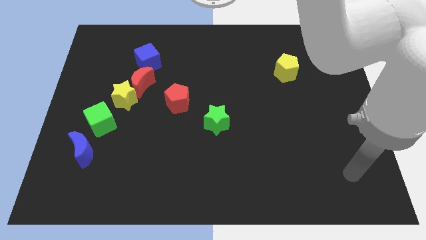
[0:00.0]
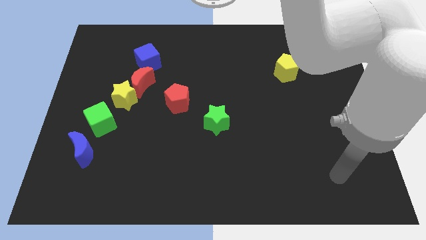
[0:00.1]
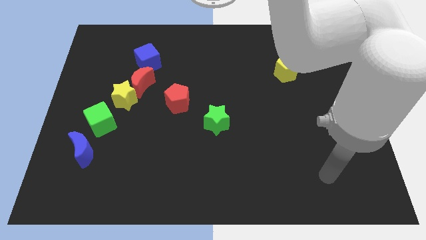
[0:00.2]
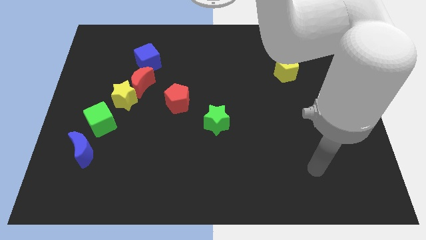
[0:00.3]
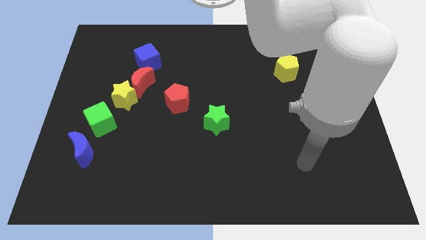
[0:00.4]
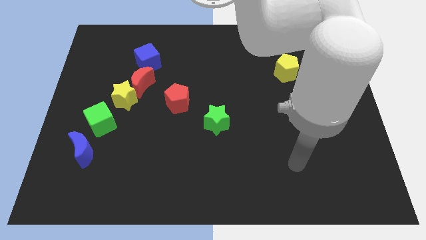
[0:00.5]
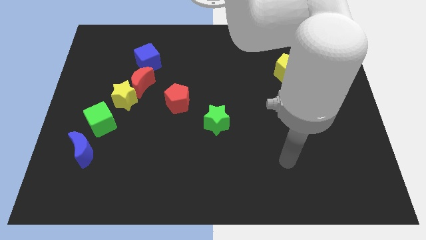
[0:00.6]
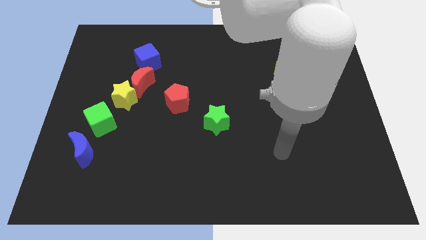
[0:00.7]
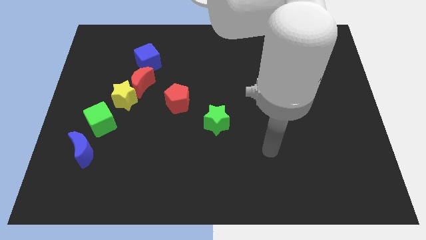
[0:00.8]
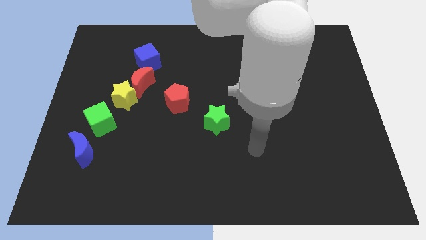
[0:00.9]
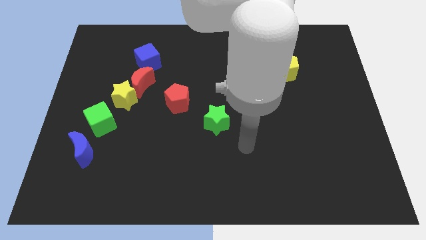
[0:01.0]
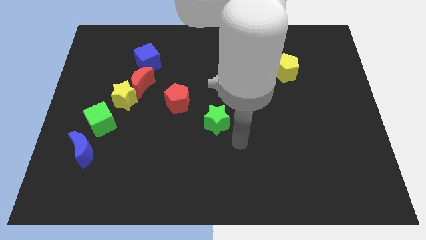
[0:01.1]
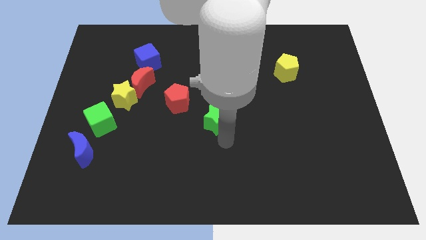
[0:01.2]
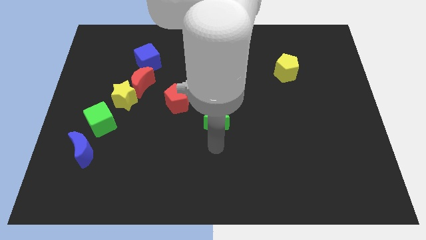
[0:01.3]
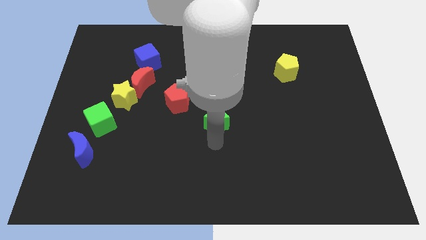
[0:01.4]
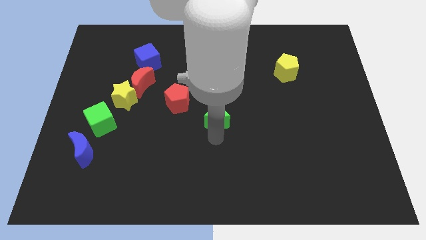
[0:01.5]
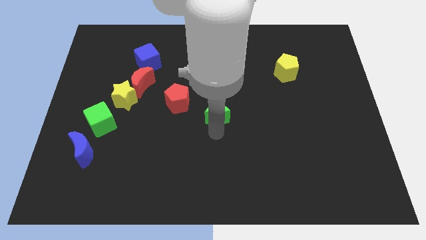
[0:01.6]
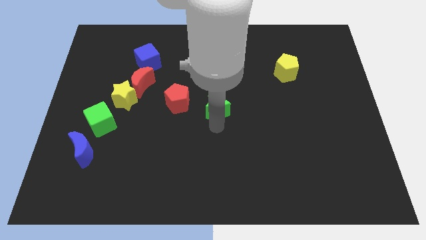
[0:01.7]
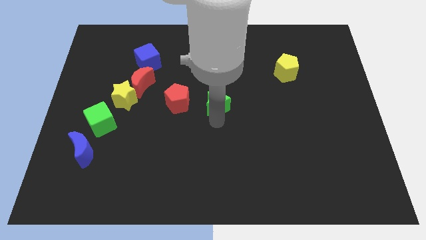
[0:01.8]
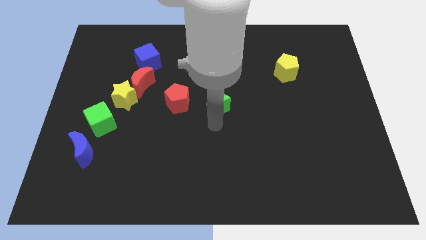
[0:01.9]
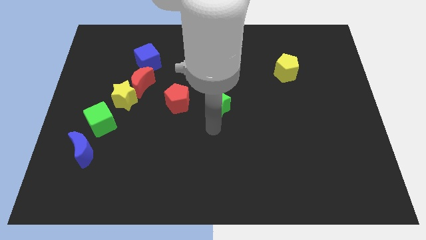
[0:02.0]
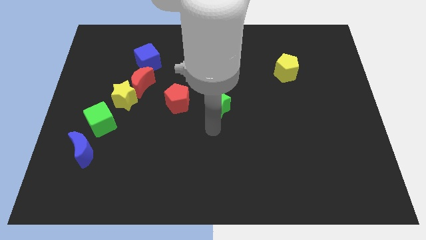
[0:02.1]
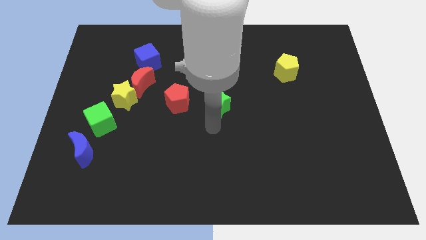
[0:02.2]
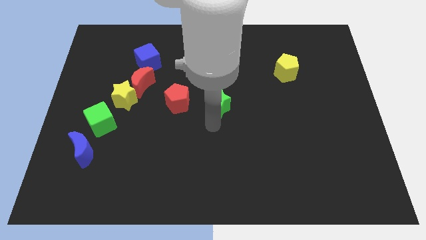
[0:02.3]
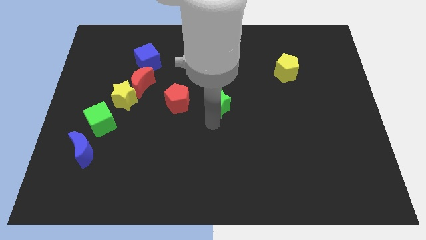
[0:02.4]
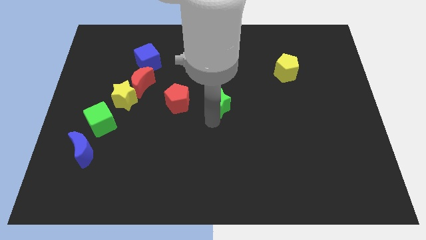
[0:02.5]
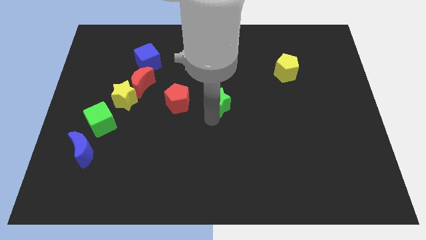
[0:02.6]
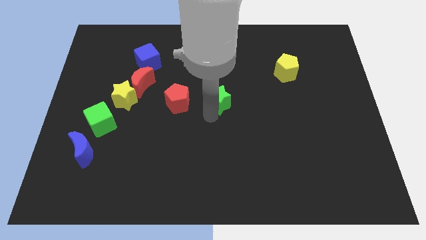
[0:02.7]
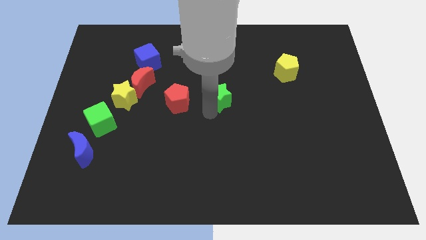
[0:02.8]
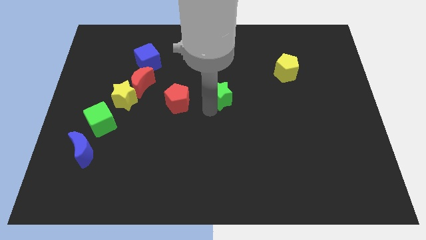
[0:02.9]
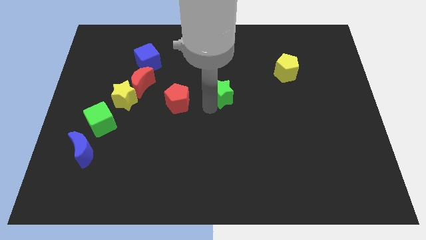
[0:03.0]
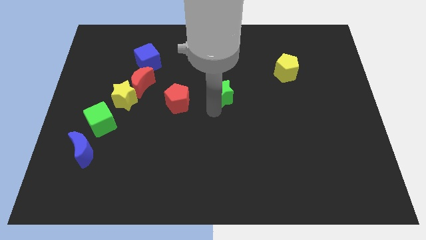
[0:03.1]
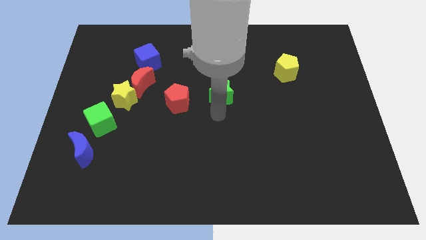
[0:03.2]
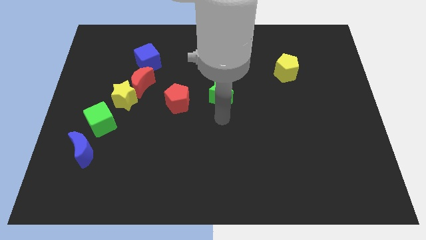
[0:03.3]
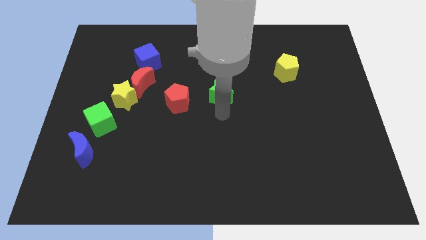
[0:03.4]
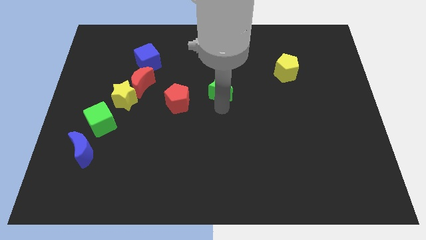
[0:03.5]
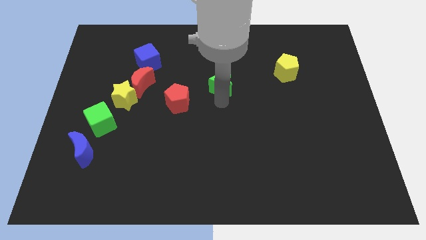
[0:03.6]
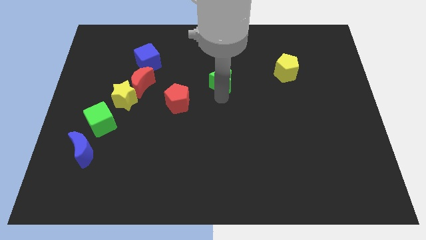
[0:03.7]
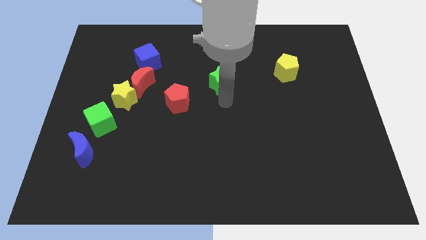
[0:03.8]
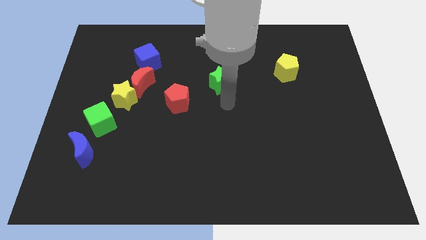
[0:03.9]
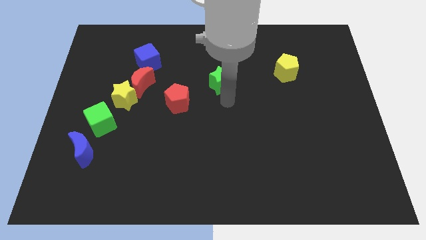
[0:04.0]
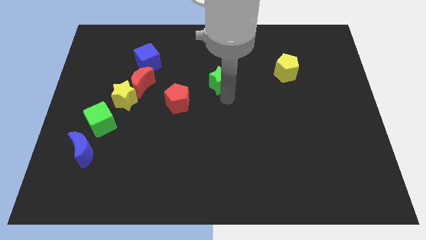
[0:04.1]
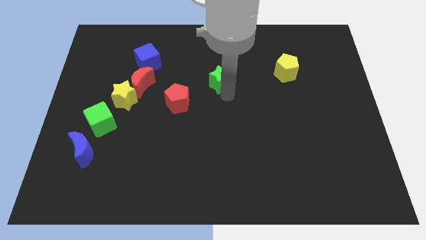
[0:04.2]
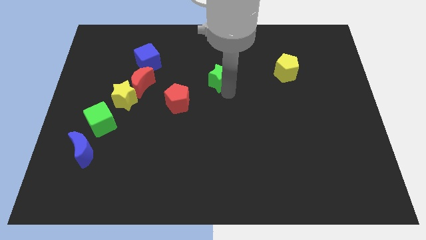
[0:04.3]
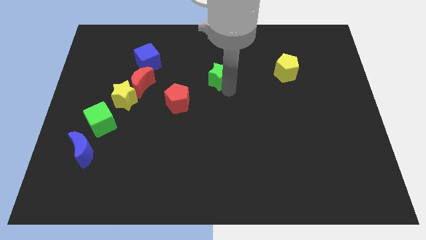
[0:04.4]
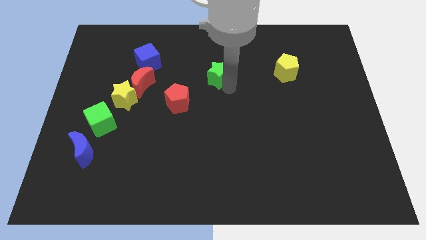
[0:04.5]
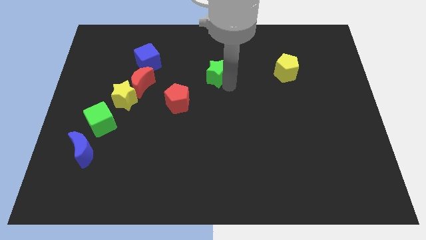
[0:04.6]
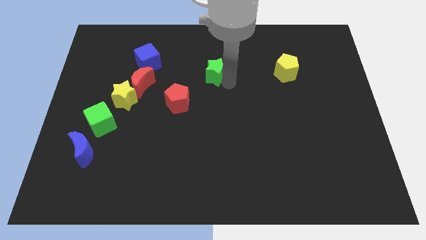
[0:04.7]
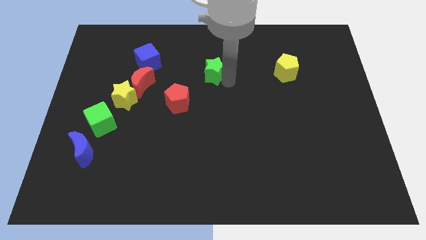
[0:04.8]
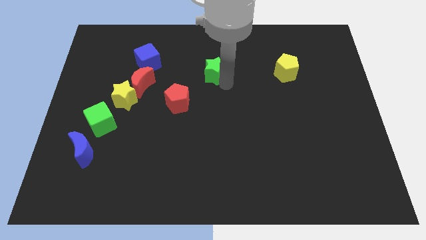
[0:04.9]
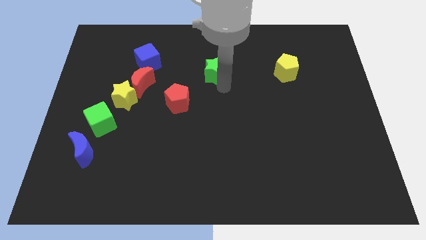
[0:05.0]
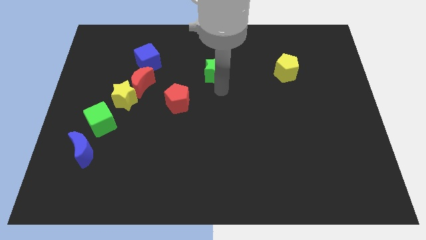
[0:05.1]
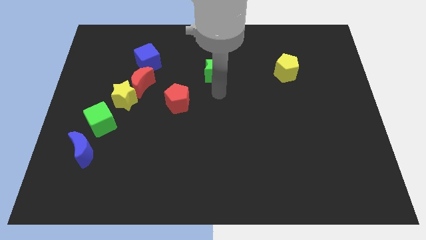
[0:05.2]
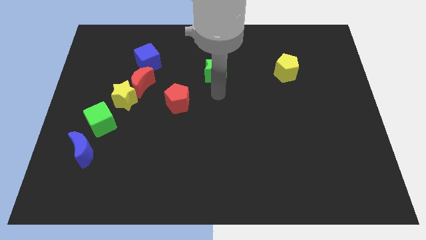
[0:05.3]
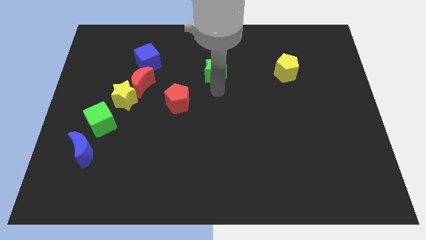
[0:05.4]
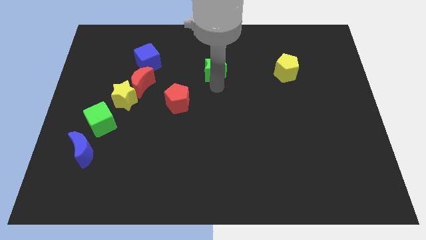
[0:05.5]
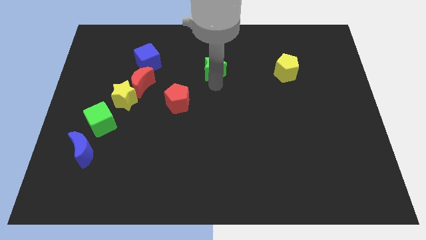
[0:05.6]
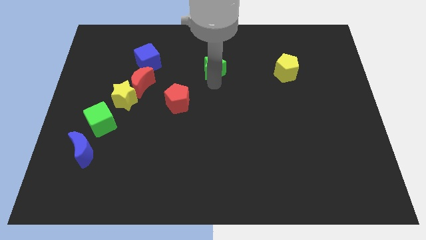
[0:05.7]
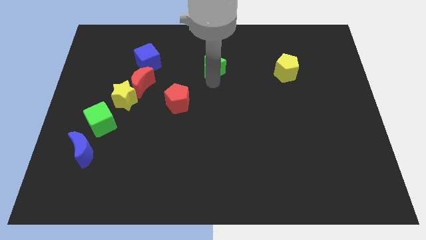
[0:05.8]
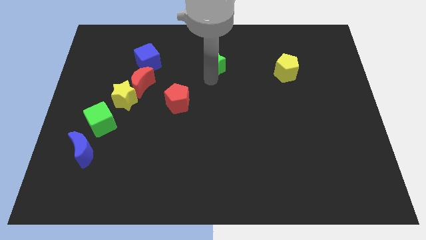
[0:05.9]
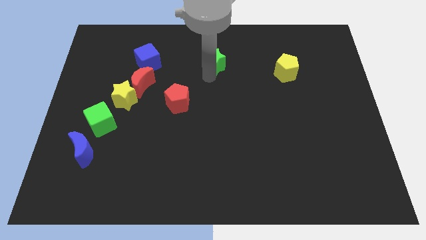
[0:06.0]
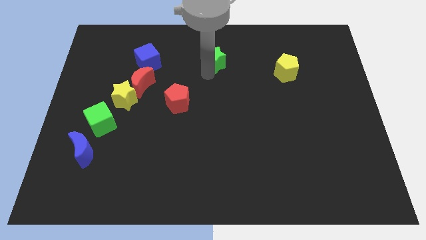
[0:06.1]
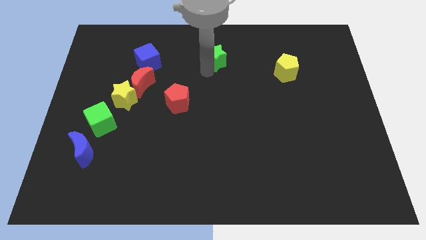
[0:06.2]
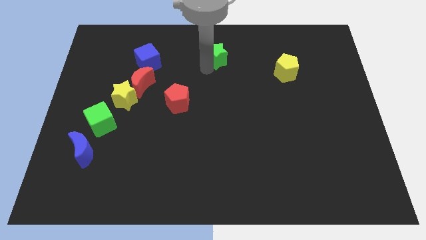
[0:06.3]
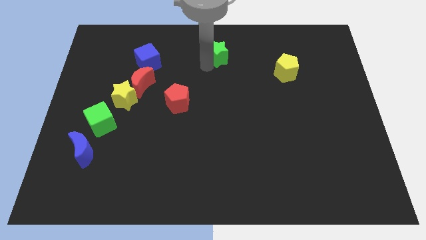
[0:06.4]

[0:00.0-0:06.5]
move the green star to the top
